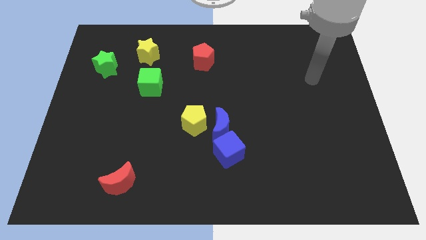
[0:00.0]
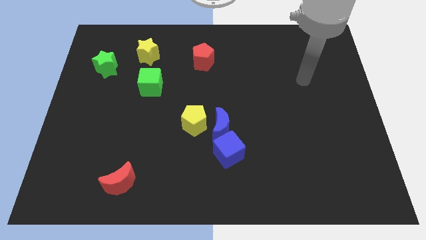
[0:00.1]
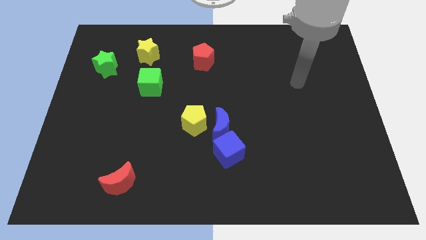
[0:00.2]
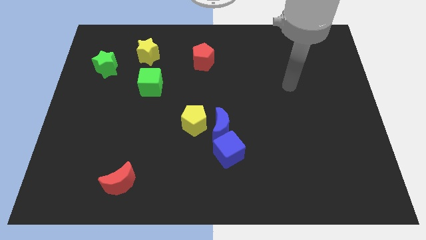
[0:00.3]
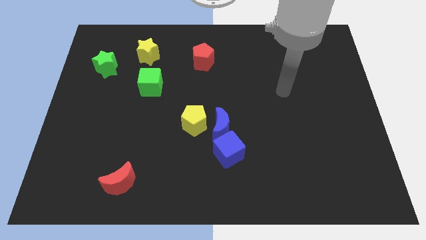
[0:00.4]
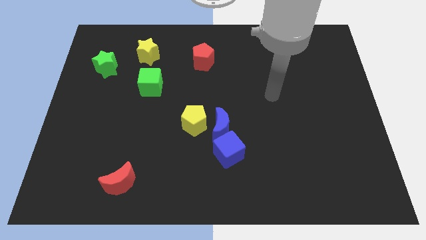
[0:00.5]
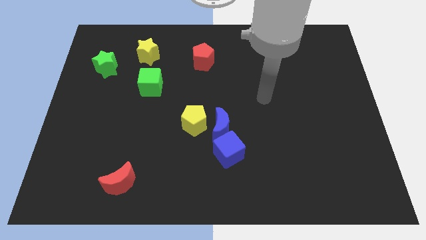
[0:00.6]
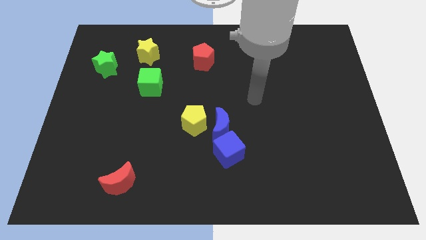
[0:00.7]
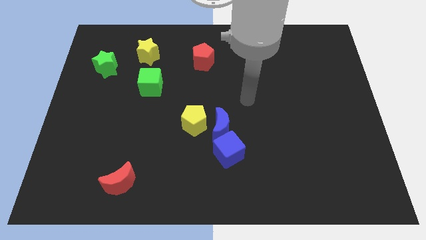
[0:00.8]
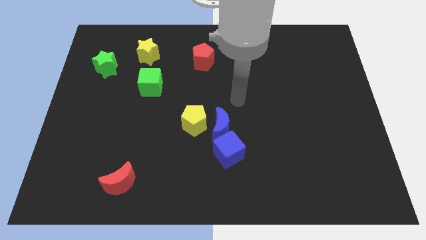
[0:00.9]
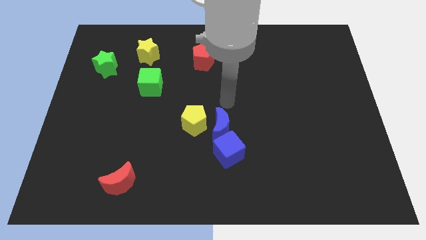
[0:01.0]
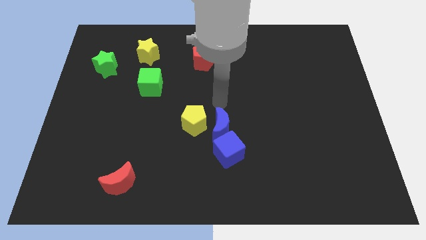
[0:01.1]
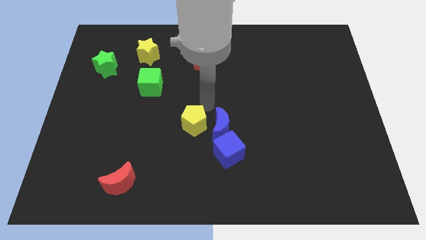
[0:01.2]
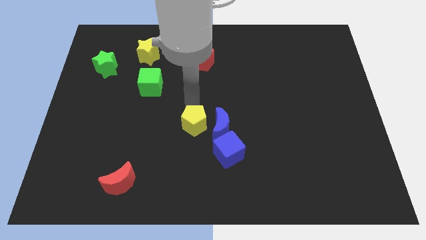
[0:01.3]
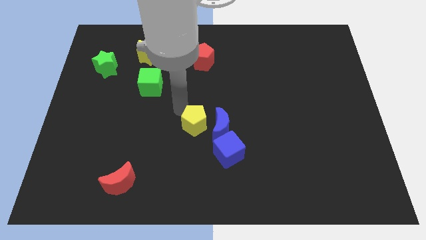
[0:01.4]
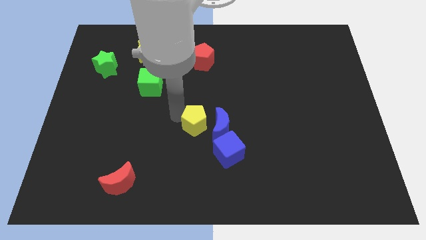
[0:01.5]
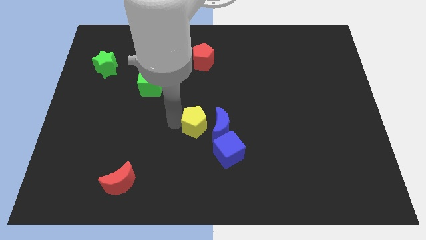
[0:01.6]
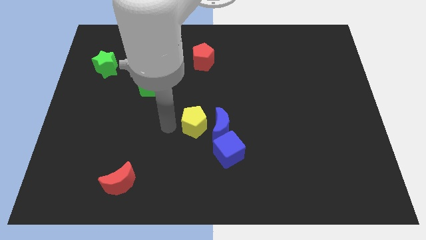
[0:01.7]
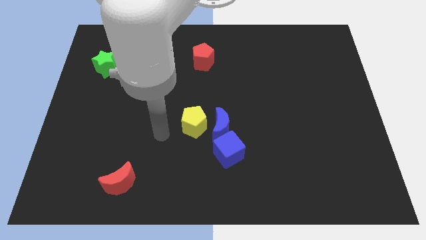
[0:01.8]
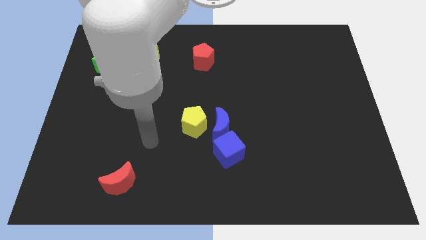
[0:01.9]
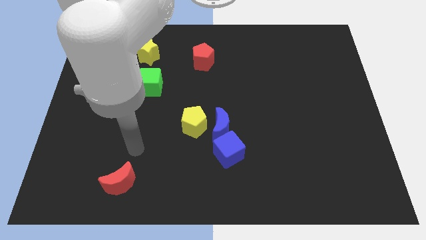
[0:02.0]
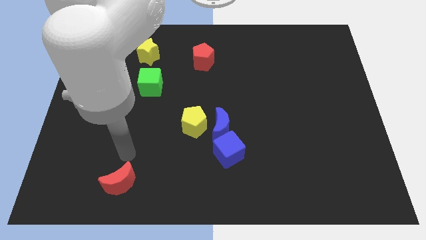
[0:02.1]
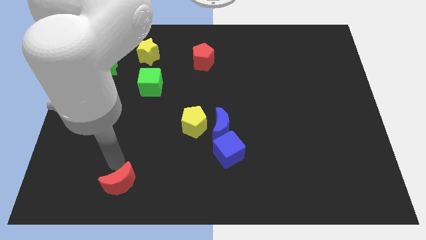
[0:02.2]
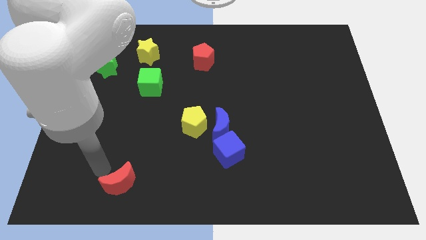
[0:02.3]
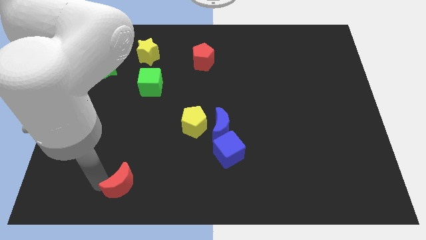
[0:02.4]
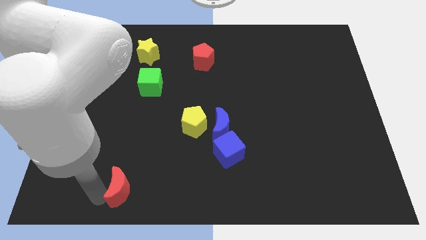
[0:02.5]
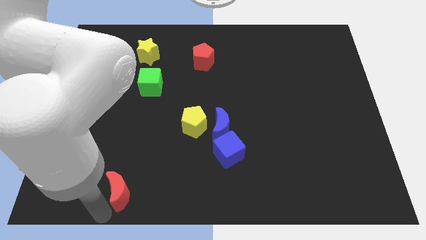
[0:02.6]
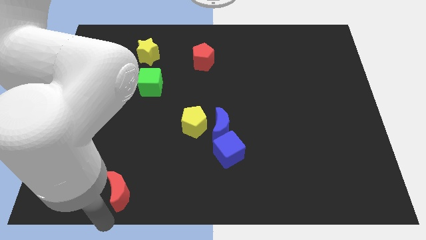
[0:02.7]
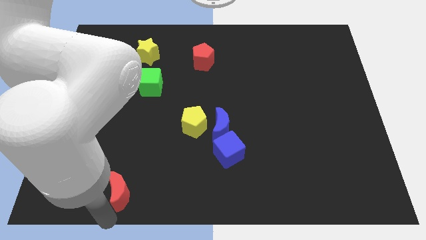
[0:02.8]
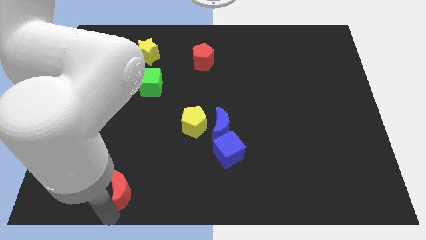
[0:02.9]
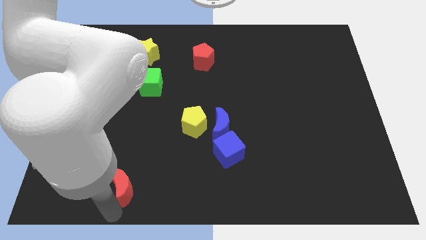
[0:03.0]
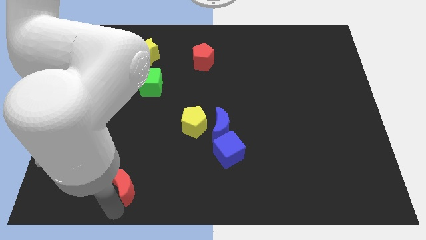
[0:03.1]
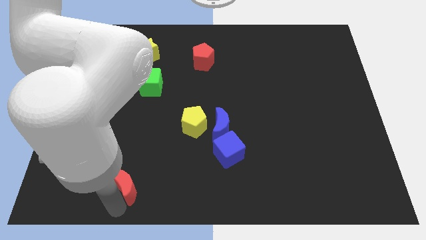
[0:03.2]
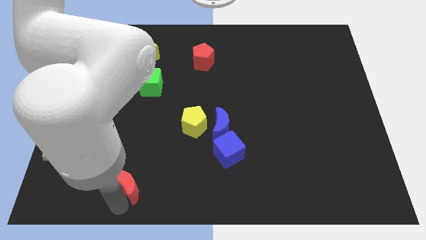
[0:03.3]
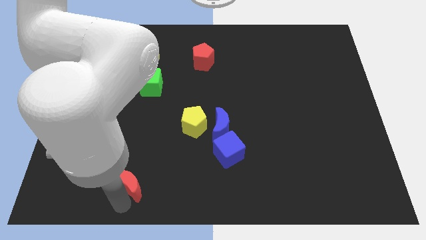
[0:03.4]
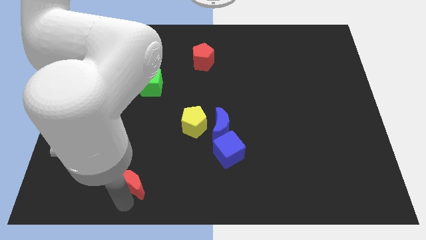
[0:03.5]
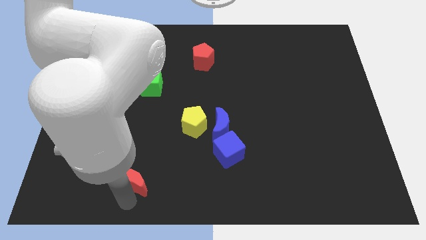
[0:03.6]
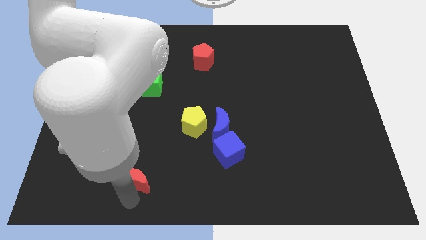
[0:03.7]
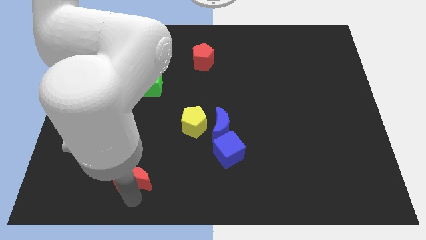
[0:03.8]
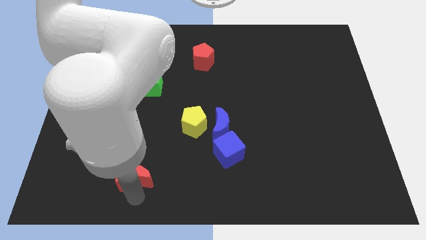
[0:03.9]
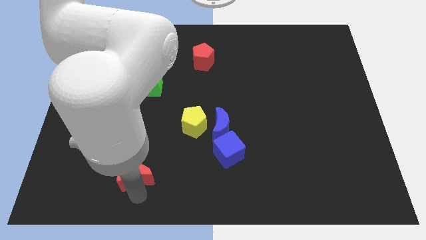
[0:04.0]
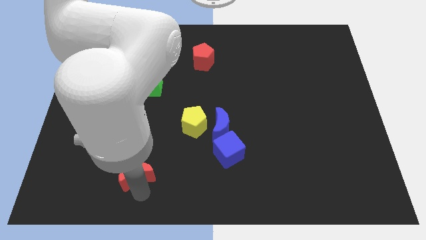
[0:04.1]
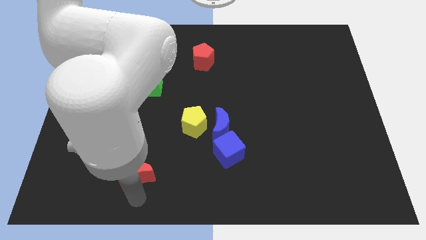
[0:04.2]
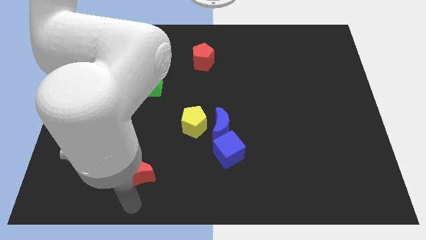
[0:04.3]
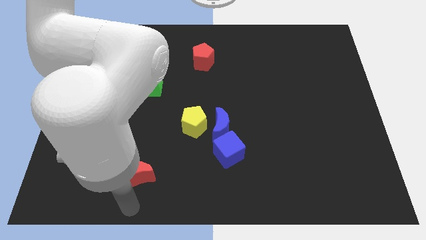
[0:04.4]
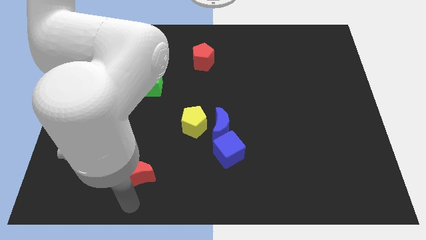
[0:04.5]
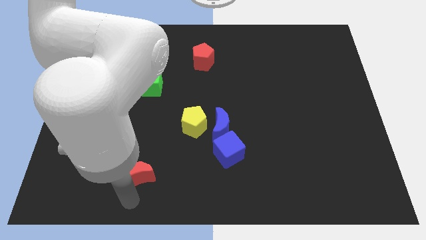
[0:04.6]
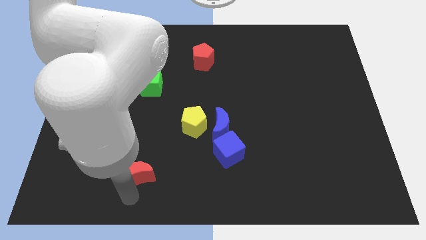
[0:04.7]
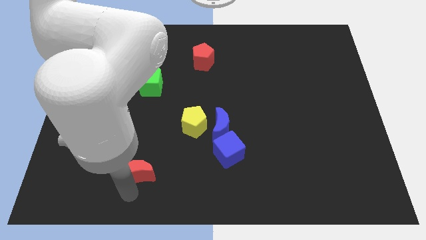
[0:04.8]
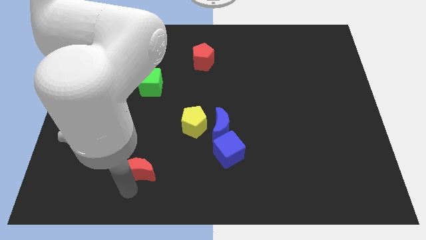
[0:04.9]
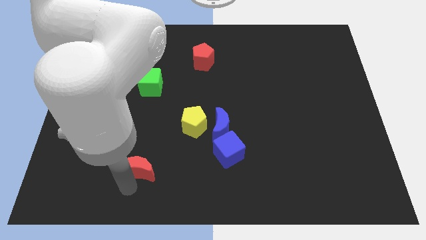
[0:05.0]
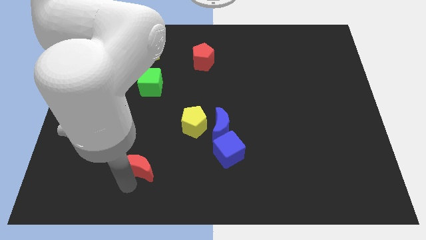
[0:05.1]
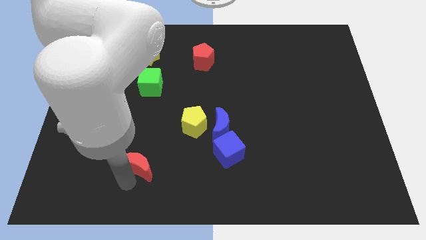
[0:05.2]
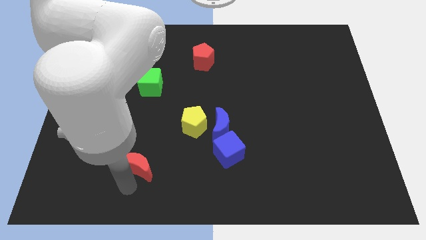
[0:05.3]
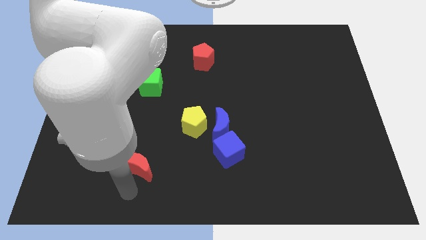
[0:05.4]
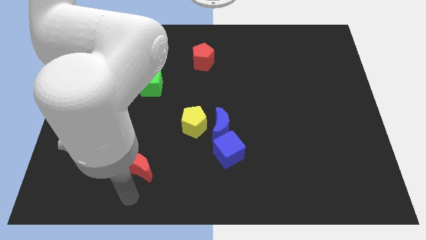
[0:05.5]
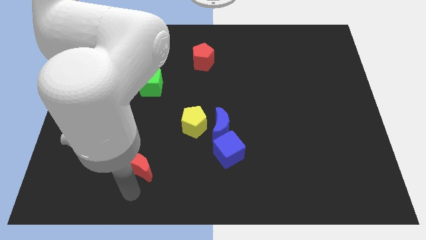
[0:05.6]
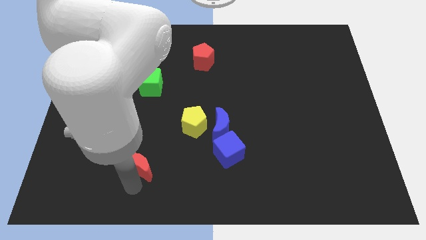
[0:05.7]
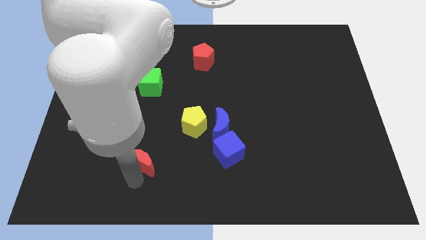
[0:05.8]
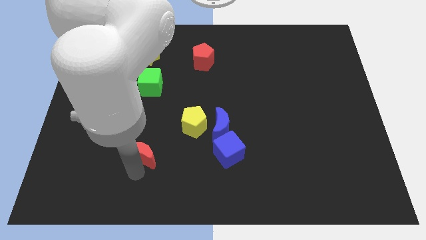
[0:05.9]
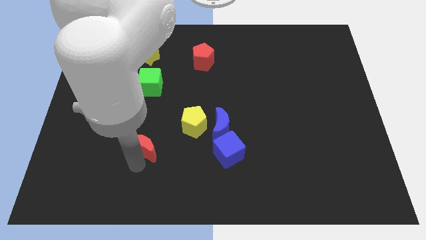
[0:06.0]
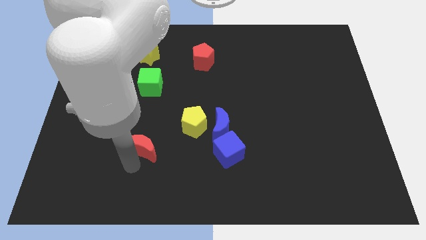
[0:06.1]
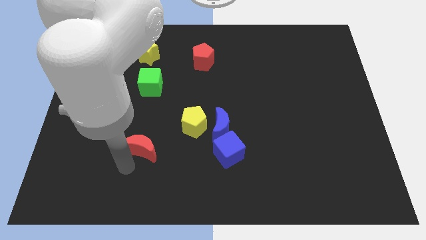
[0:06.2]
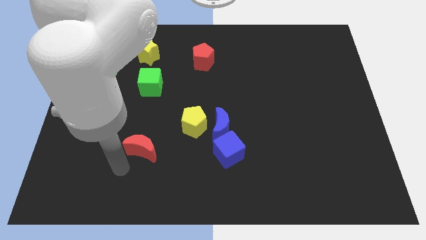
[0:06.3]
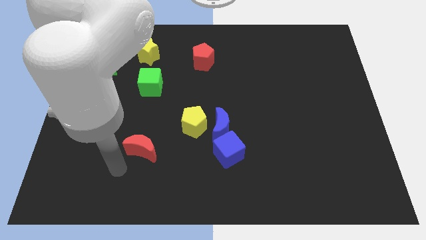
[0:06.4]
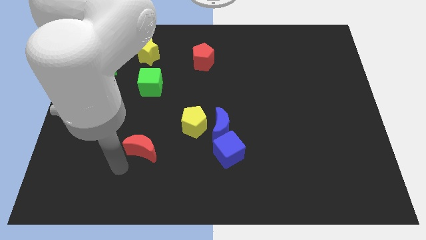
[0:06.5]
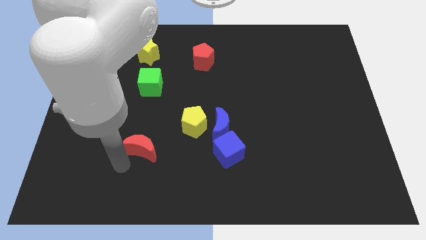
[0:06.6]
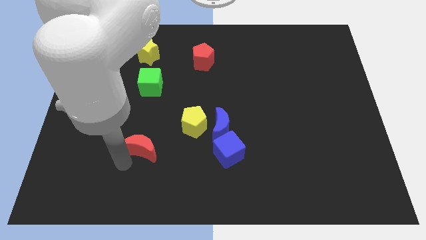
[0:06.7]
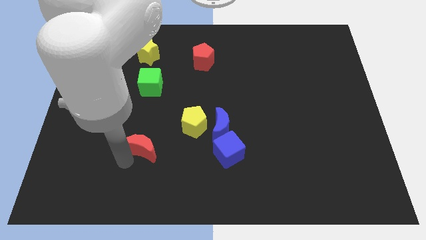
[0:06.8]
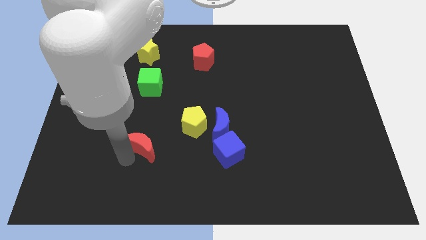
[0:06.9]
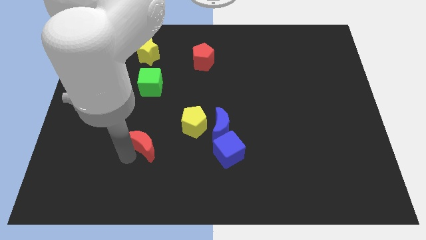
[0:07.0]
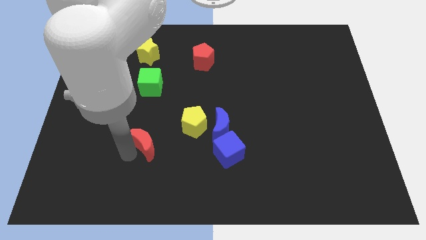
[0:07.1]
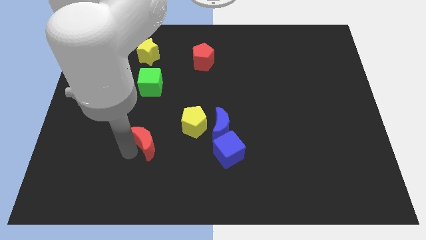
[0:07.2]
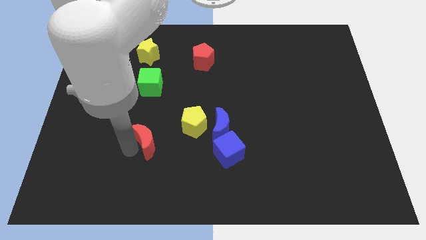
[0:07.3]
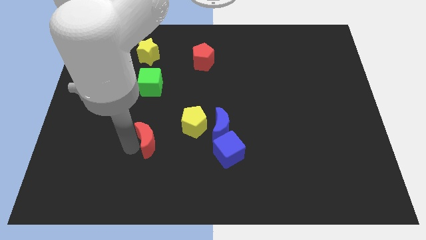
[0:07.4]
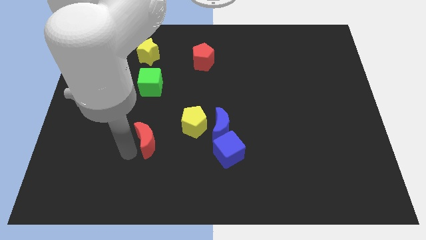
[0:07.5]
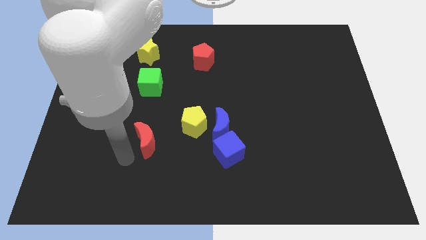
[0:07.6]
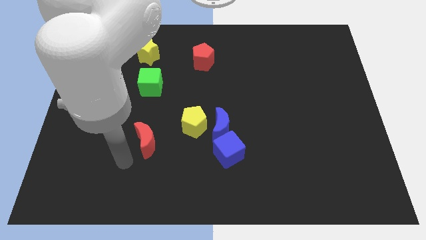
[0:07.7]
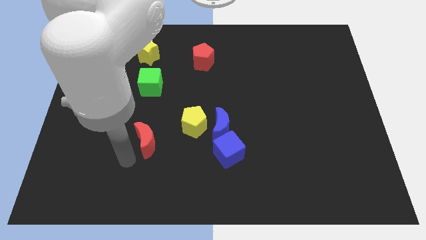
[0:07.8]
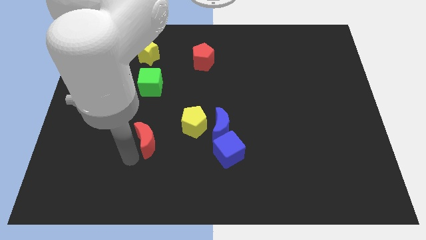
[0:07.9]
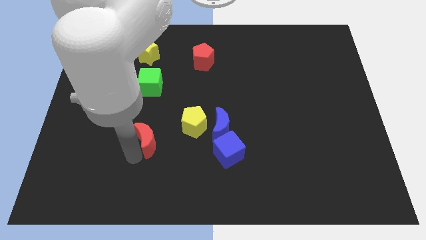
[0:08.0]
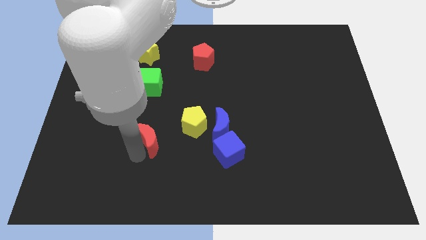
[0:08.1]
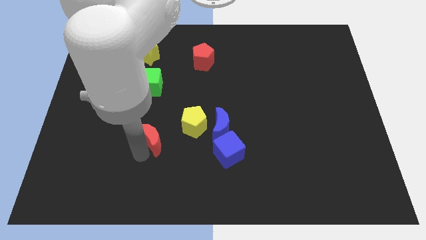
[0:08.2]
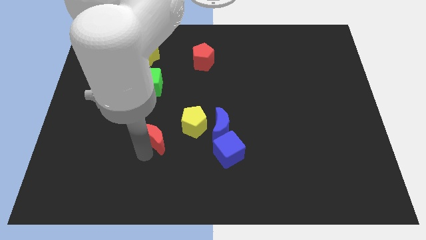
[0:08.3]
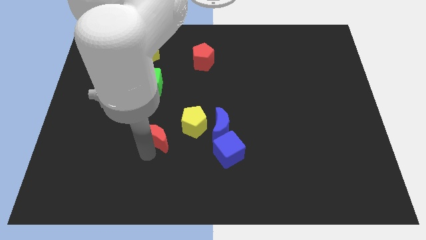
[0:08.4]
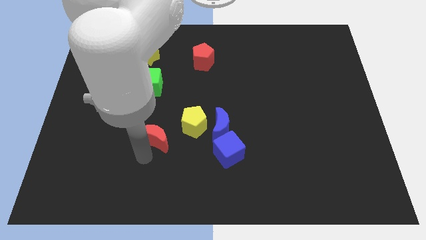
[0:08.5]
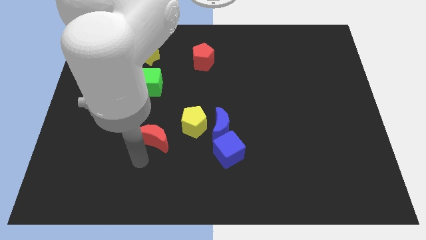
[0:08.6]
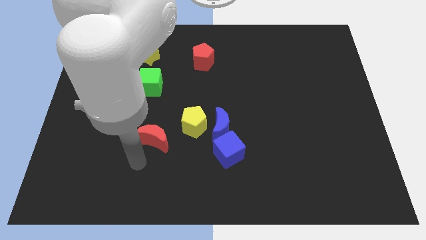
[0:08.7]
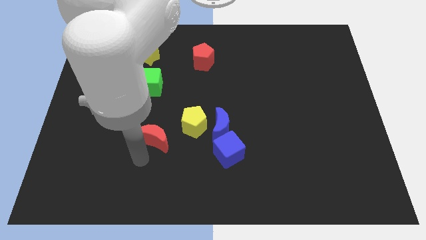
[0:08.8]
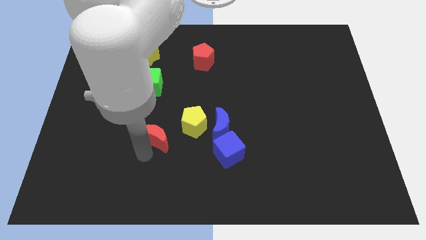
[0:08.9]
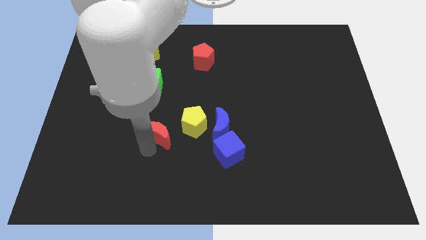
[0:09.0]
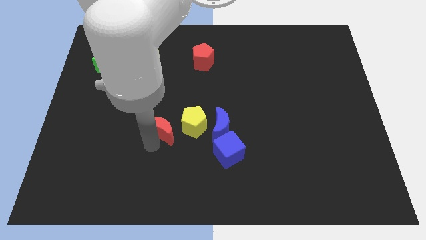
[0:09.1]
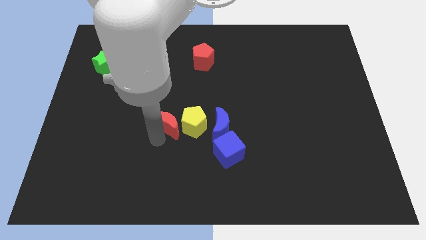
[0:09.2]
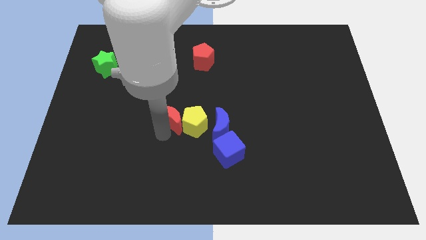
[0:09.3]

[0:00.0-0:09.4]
put the red moon to the middle of the board
